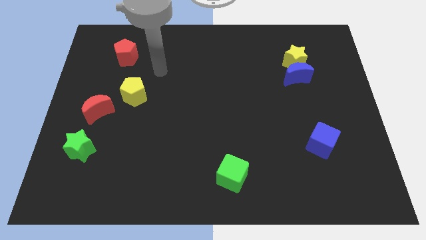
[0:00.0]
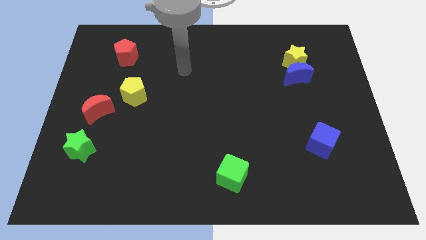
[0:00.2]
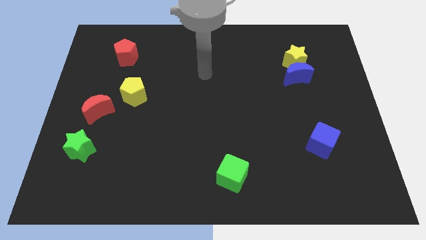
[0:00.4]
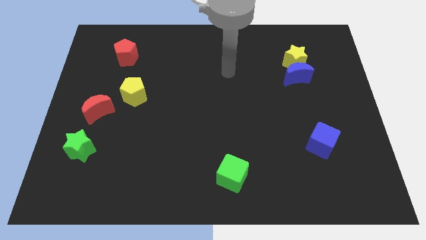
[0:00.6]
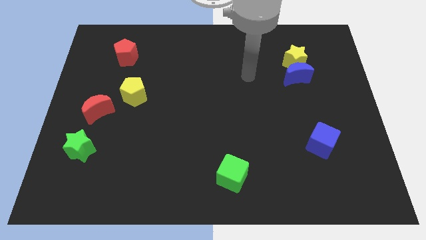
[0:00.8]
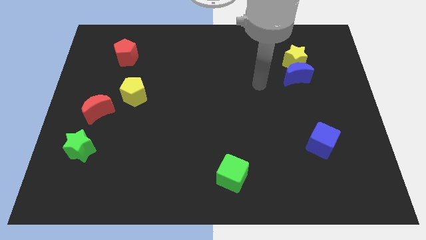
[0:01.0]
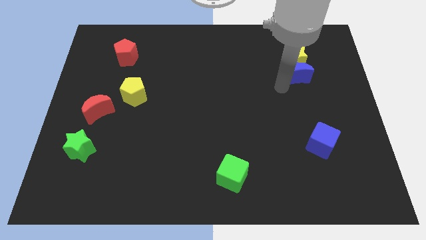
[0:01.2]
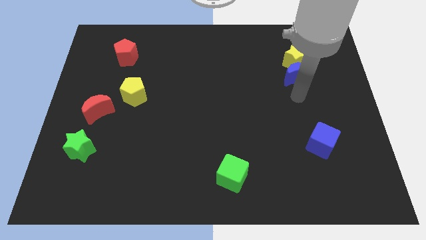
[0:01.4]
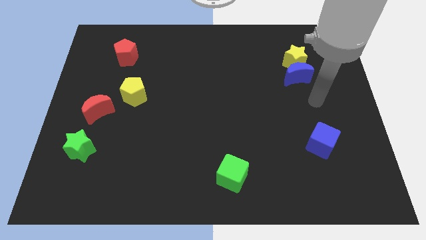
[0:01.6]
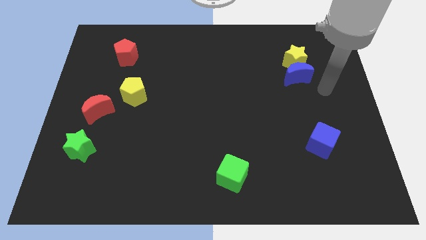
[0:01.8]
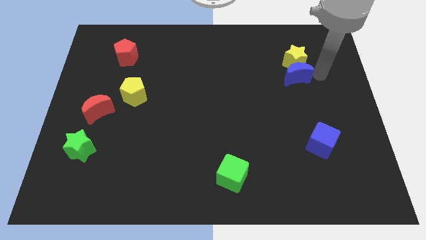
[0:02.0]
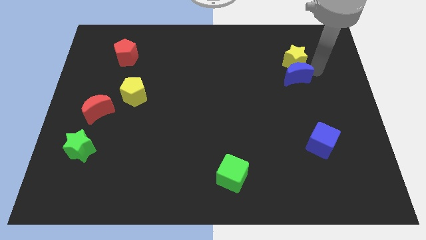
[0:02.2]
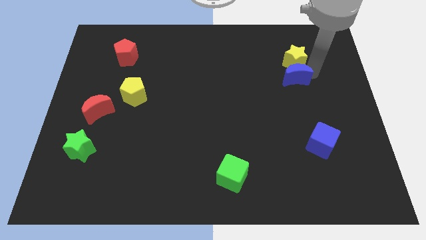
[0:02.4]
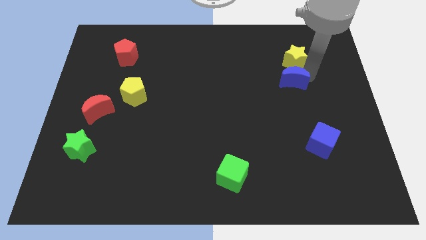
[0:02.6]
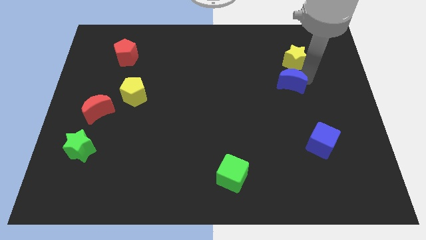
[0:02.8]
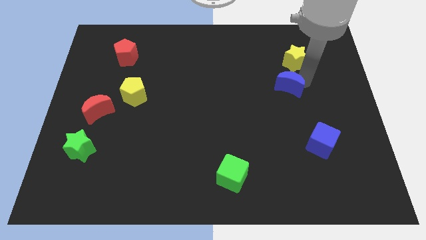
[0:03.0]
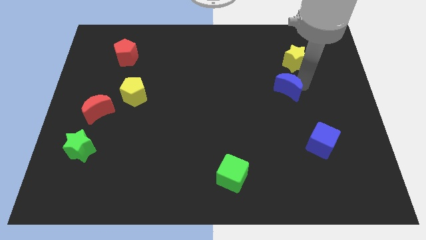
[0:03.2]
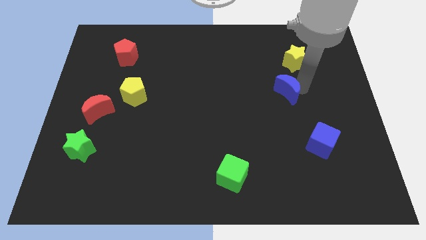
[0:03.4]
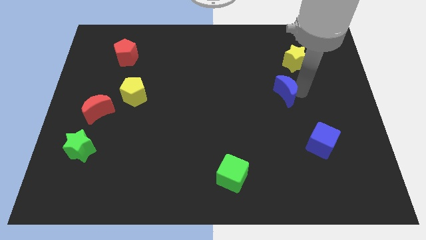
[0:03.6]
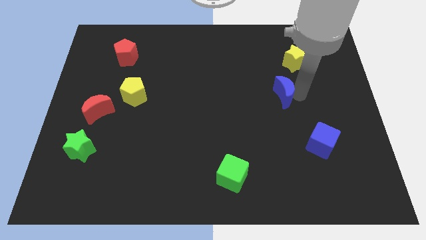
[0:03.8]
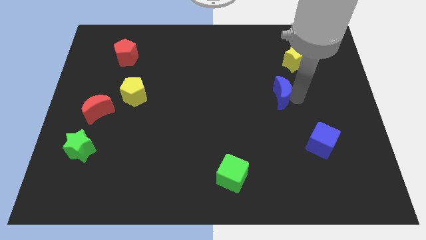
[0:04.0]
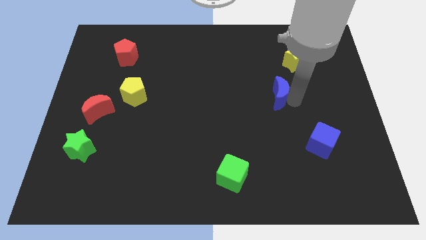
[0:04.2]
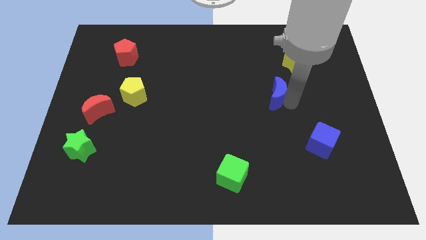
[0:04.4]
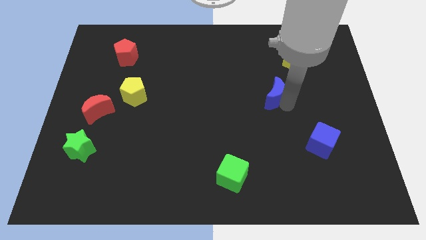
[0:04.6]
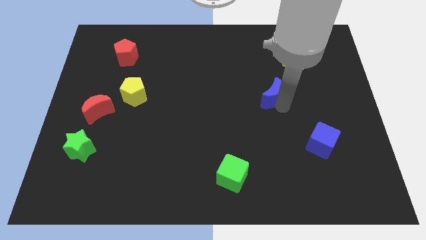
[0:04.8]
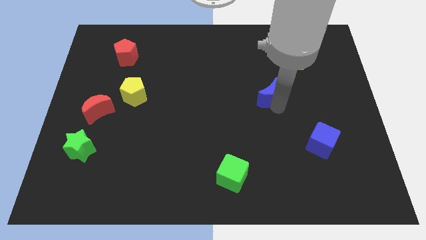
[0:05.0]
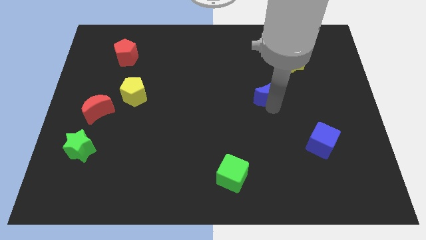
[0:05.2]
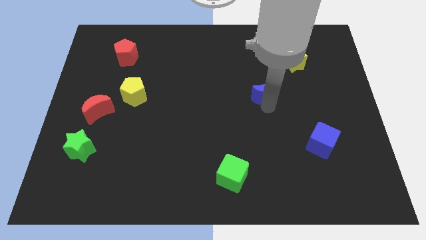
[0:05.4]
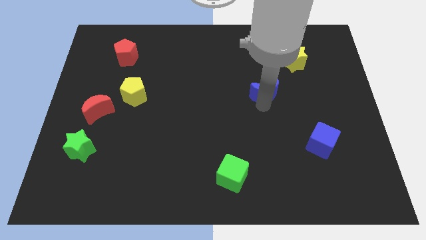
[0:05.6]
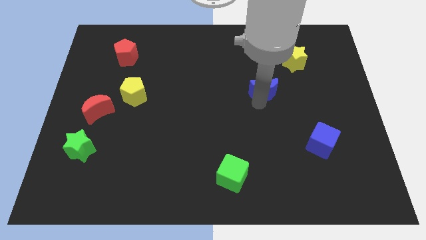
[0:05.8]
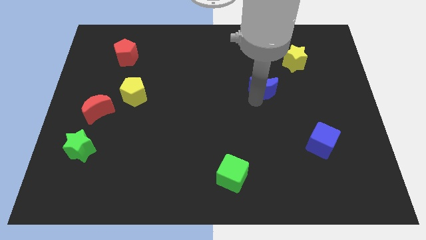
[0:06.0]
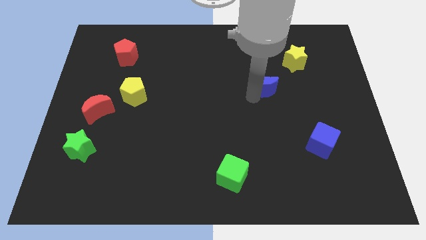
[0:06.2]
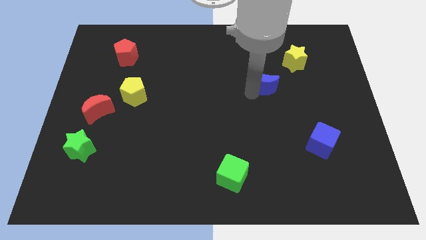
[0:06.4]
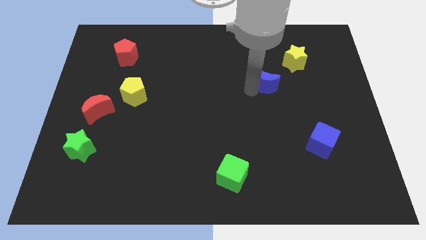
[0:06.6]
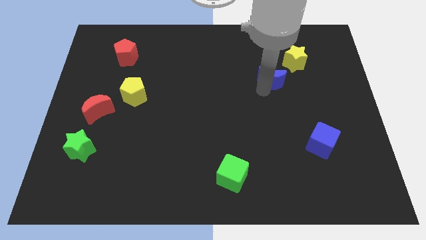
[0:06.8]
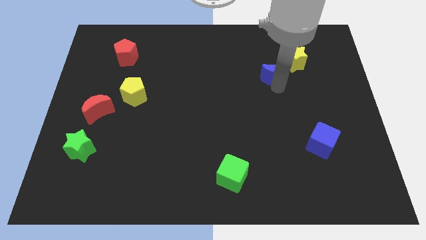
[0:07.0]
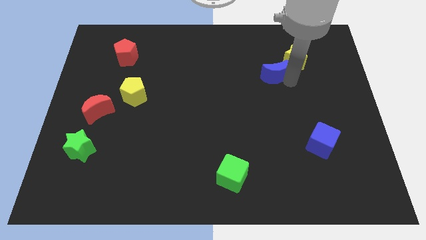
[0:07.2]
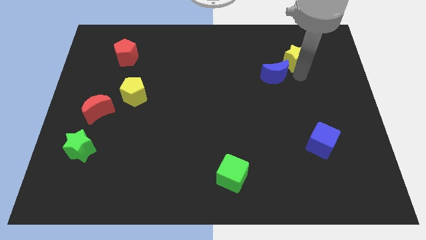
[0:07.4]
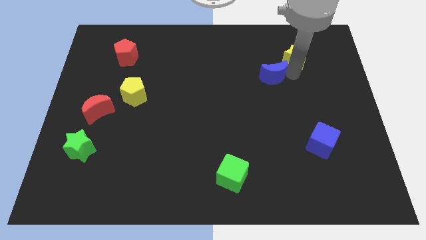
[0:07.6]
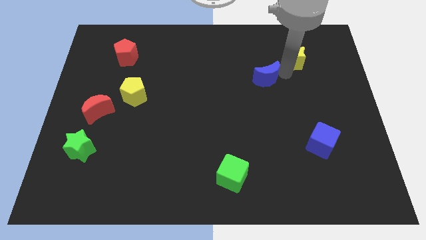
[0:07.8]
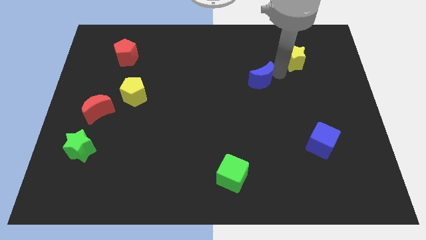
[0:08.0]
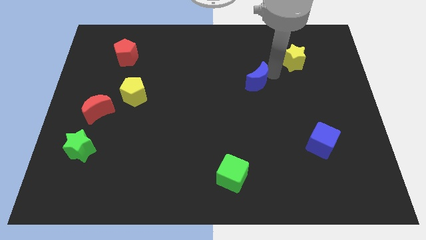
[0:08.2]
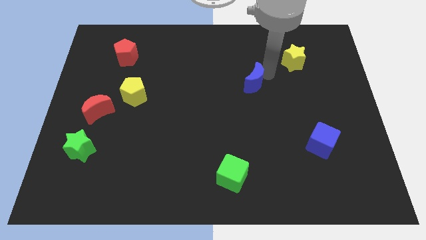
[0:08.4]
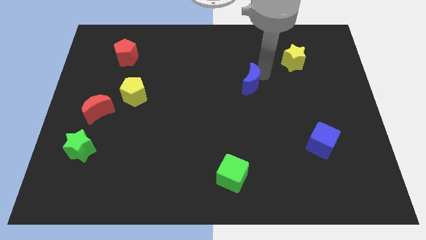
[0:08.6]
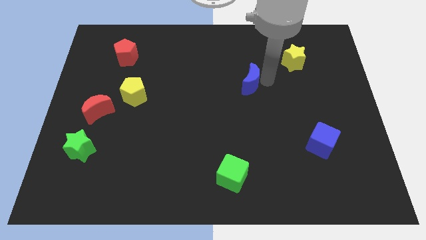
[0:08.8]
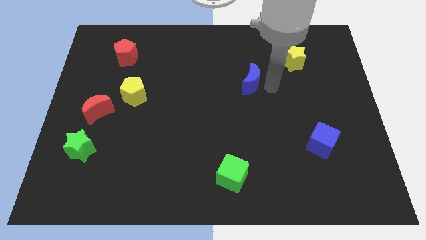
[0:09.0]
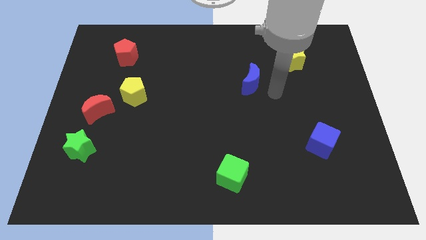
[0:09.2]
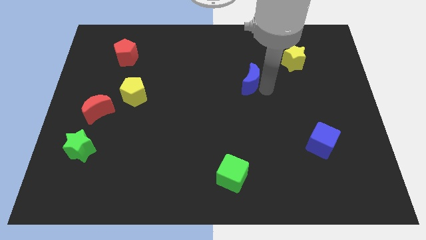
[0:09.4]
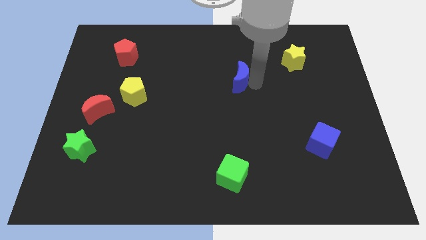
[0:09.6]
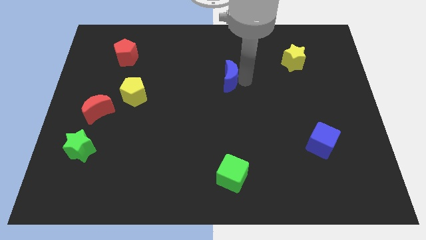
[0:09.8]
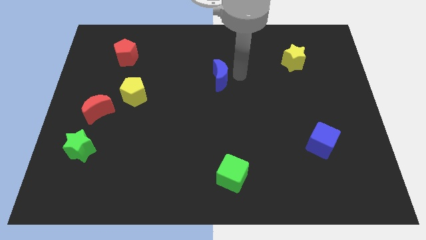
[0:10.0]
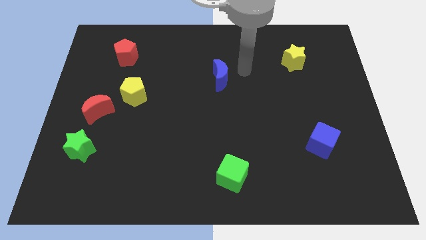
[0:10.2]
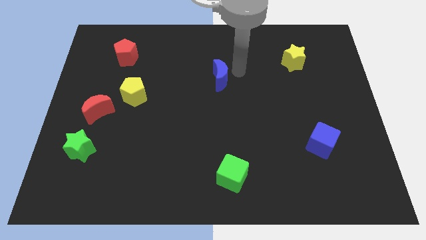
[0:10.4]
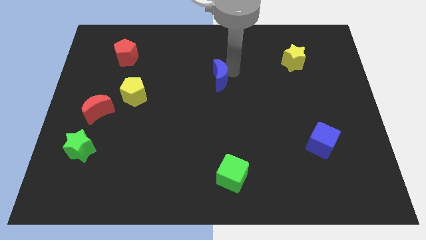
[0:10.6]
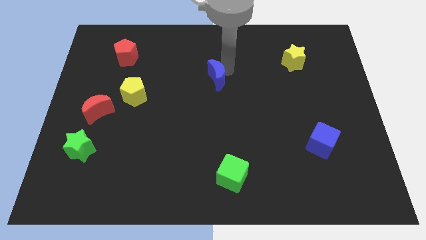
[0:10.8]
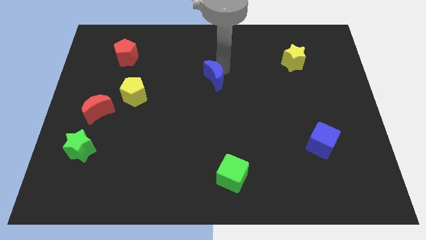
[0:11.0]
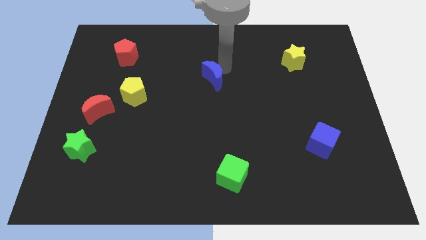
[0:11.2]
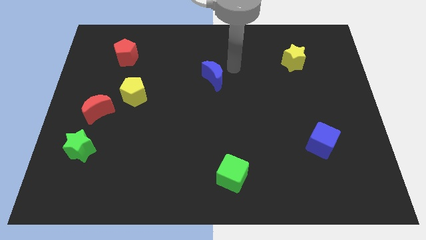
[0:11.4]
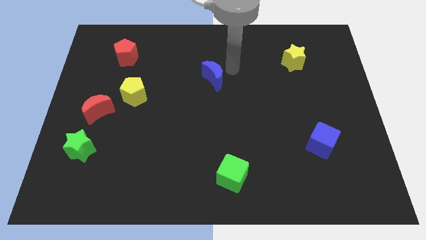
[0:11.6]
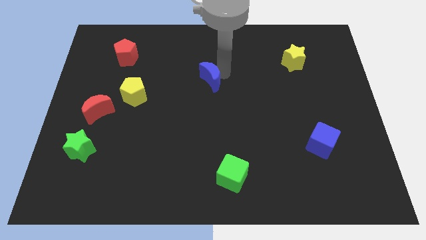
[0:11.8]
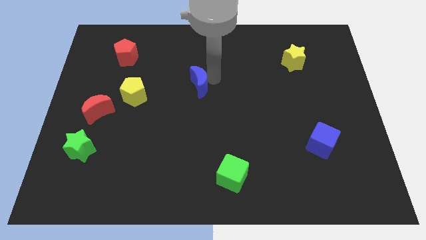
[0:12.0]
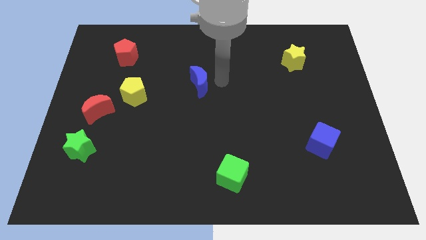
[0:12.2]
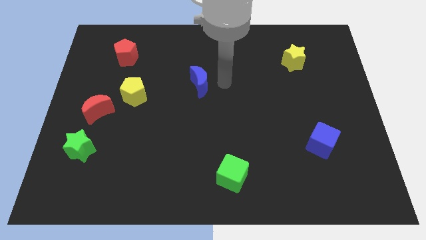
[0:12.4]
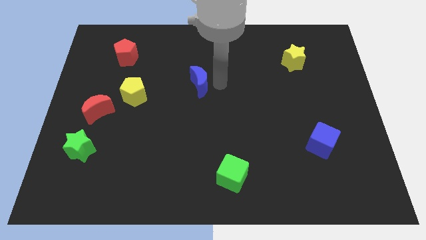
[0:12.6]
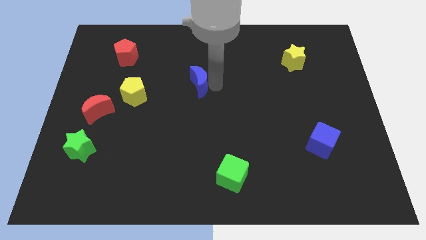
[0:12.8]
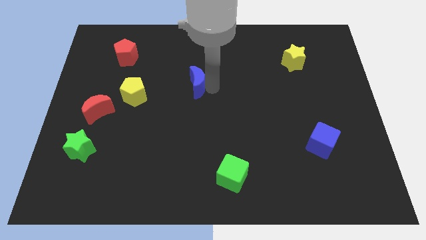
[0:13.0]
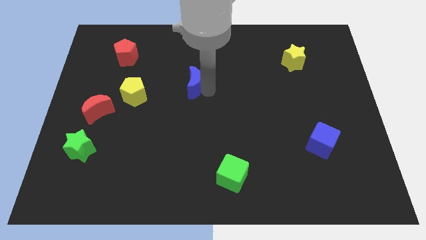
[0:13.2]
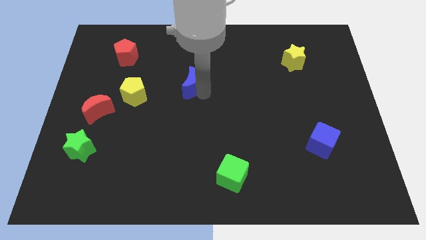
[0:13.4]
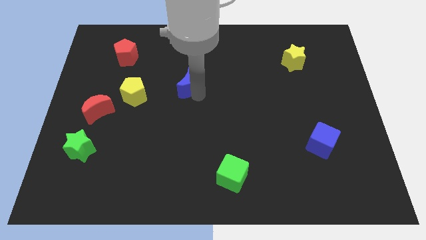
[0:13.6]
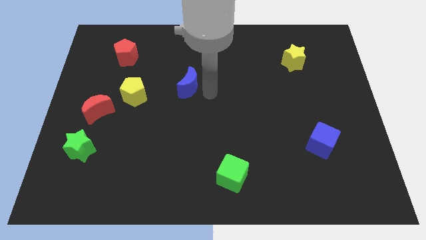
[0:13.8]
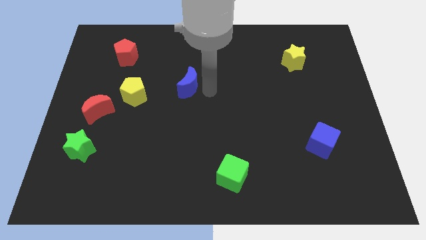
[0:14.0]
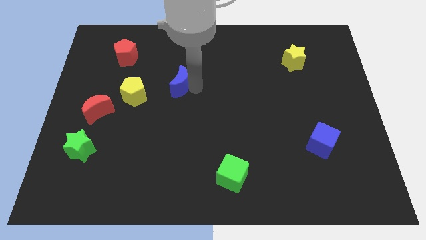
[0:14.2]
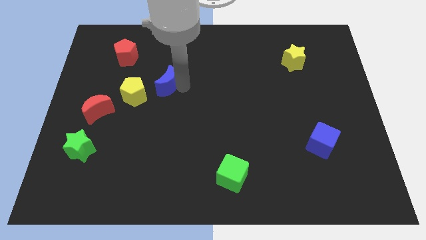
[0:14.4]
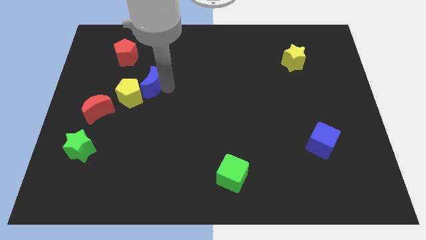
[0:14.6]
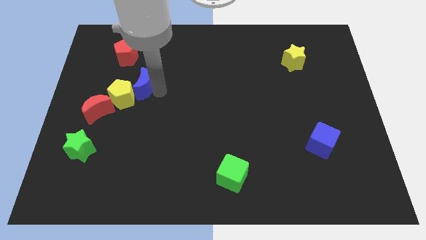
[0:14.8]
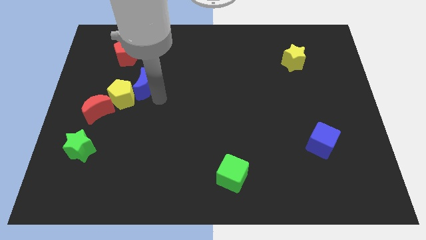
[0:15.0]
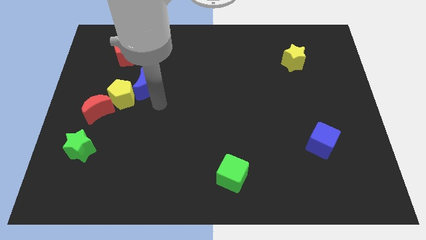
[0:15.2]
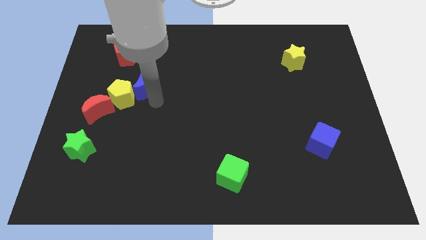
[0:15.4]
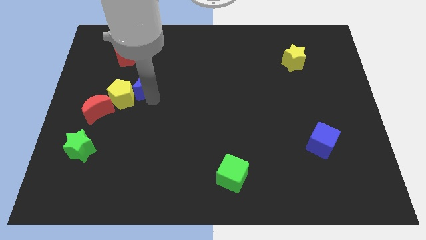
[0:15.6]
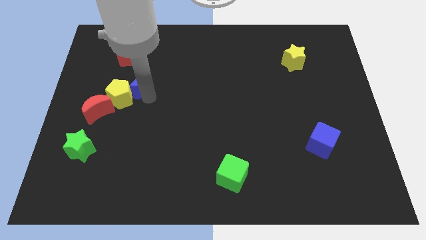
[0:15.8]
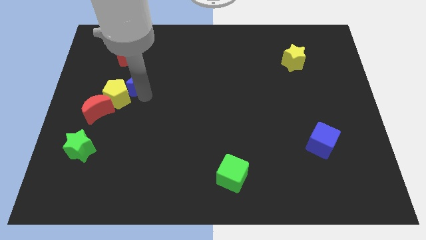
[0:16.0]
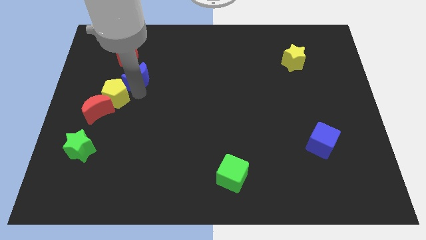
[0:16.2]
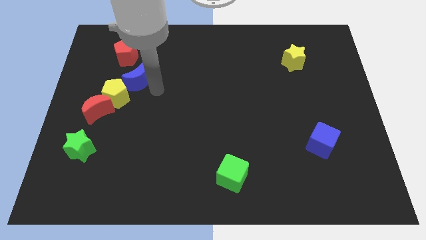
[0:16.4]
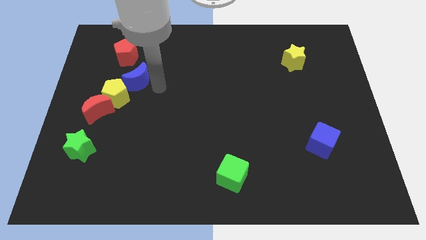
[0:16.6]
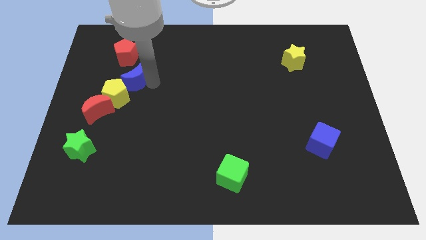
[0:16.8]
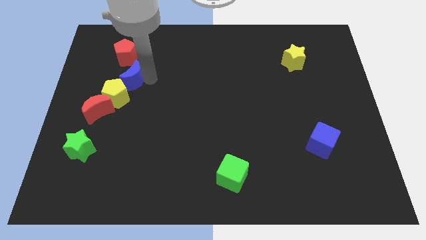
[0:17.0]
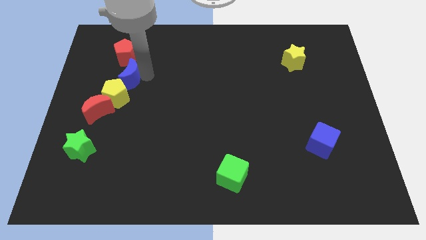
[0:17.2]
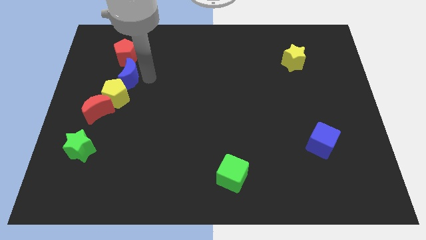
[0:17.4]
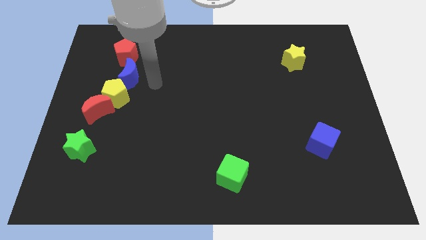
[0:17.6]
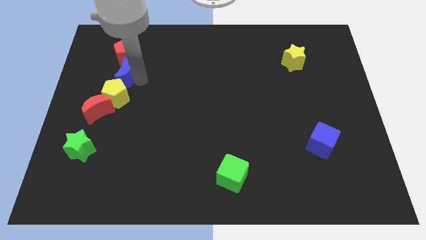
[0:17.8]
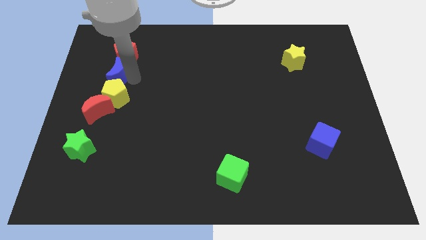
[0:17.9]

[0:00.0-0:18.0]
move the blue moon diagonally down and to the left of the red pentagon
